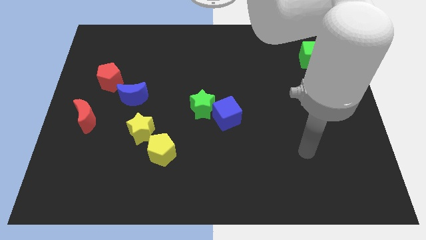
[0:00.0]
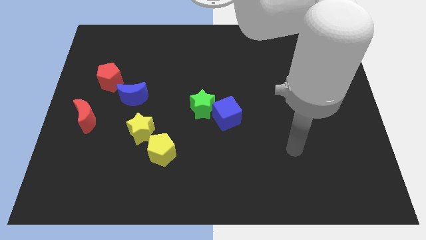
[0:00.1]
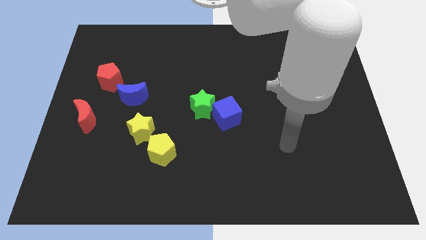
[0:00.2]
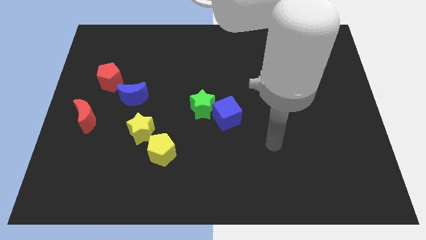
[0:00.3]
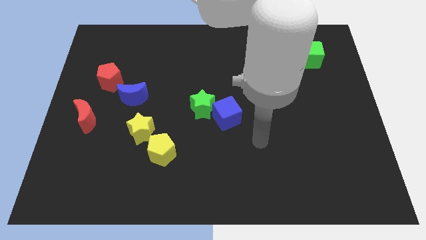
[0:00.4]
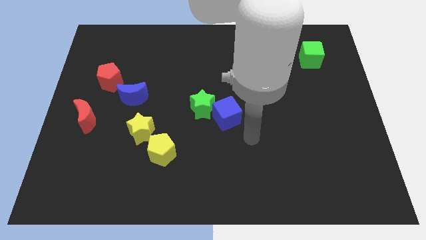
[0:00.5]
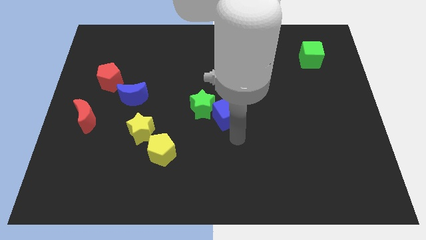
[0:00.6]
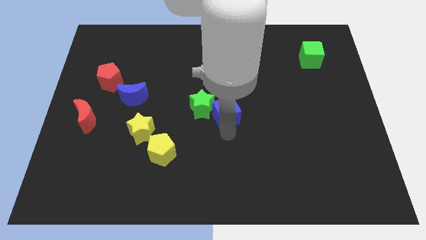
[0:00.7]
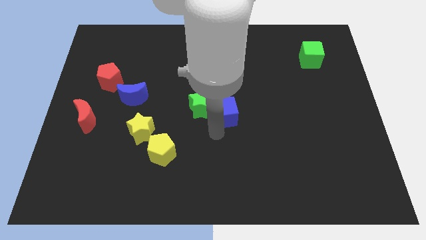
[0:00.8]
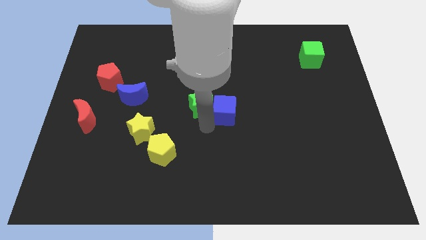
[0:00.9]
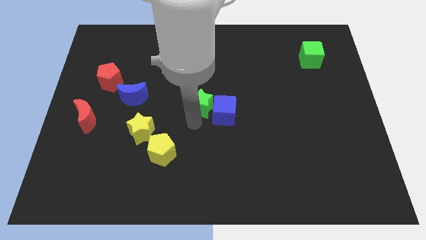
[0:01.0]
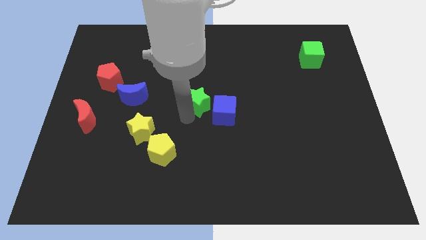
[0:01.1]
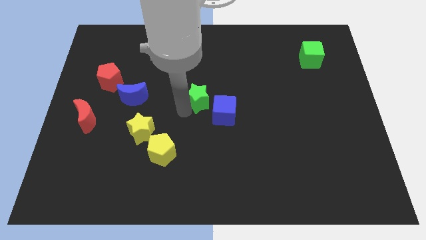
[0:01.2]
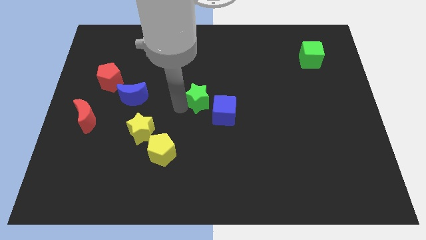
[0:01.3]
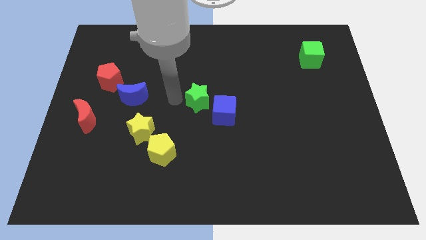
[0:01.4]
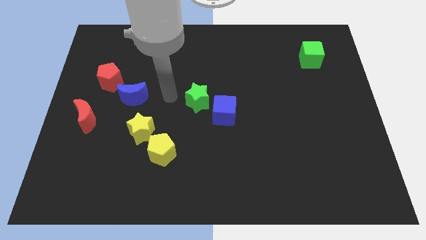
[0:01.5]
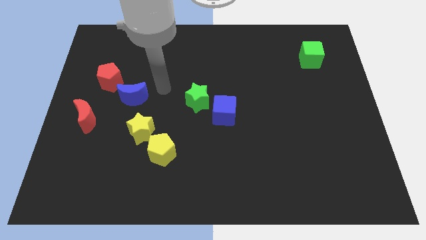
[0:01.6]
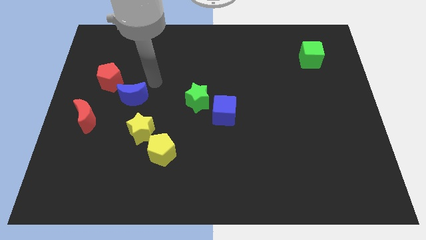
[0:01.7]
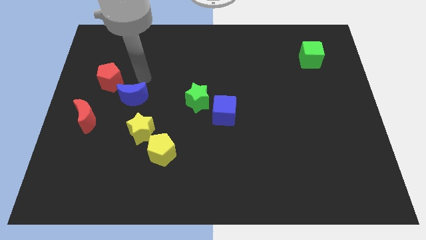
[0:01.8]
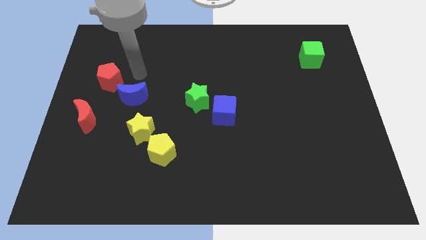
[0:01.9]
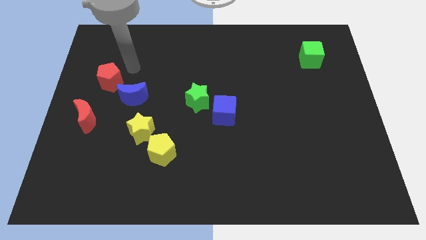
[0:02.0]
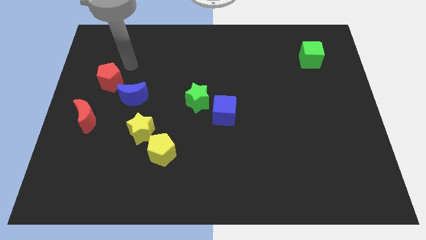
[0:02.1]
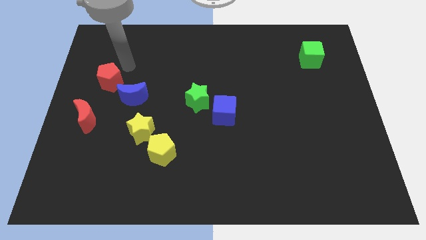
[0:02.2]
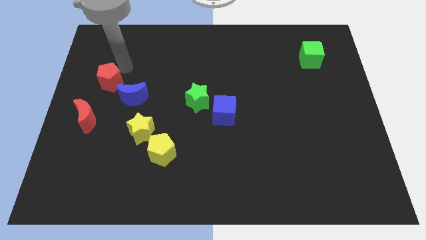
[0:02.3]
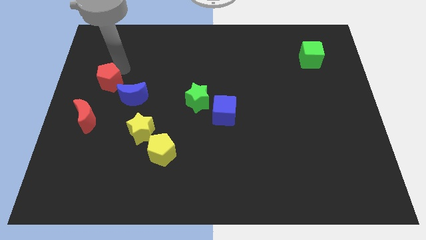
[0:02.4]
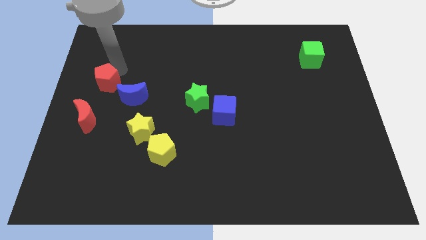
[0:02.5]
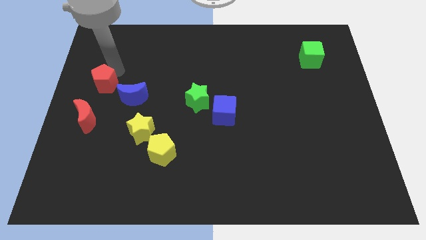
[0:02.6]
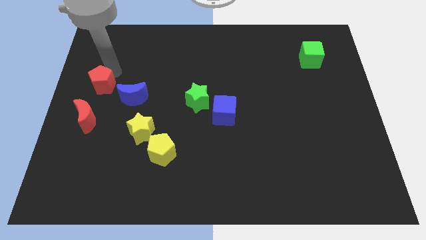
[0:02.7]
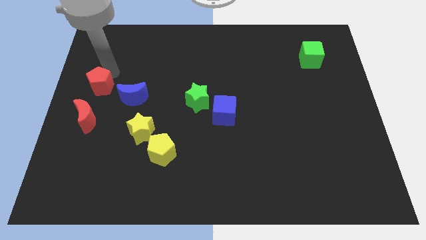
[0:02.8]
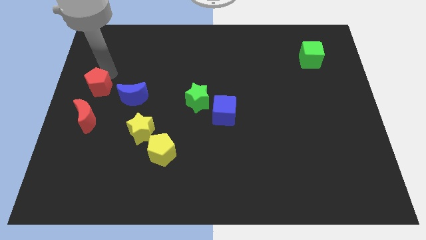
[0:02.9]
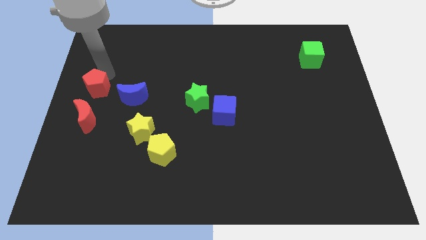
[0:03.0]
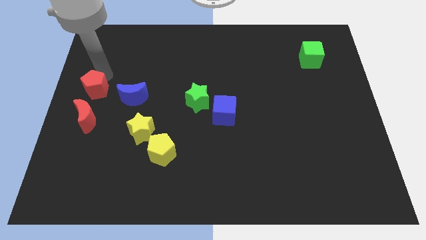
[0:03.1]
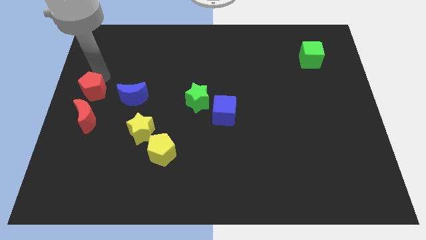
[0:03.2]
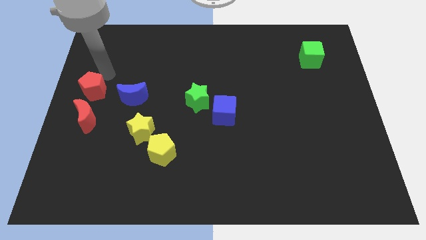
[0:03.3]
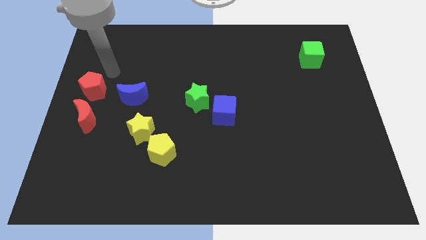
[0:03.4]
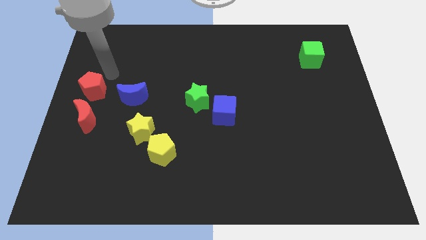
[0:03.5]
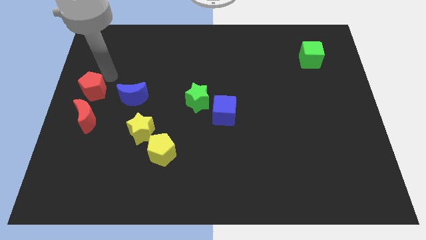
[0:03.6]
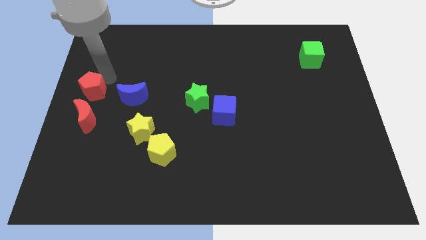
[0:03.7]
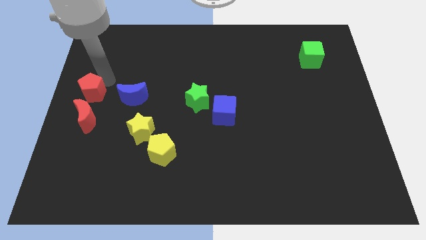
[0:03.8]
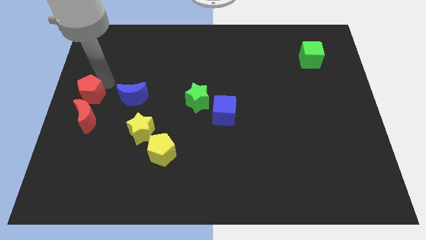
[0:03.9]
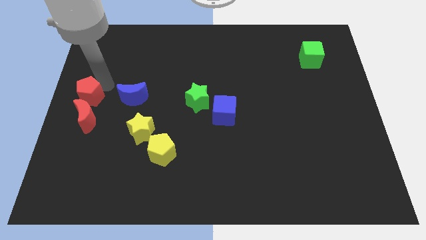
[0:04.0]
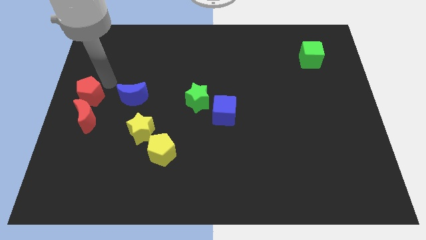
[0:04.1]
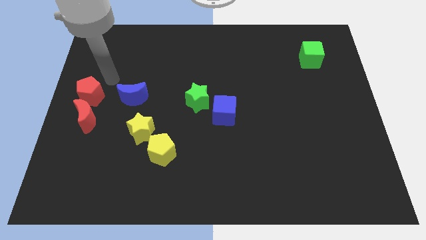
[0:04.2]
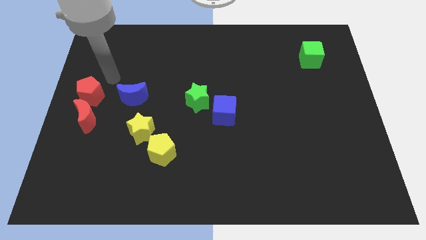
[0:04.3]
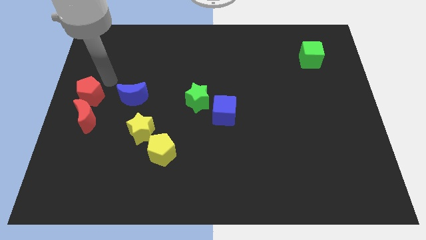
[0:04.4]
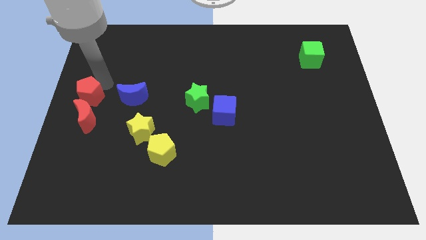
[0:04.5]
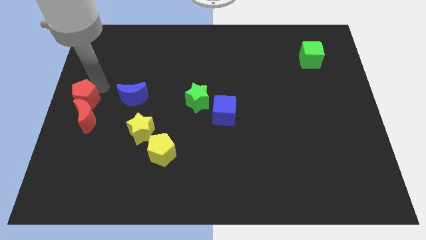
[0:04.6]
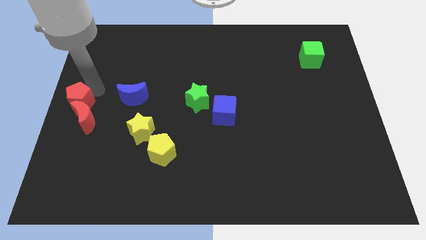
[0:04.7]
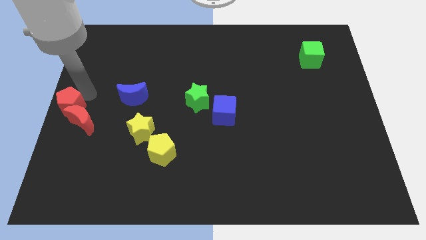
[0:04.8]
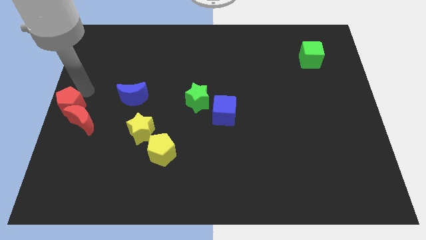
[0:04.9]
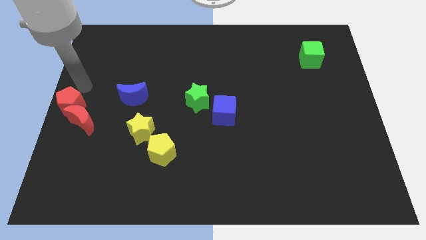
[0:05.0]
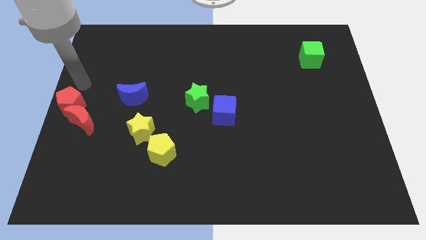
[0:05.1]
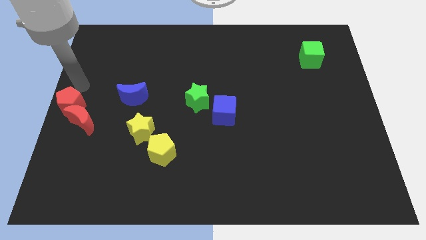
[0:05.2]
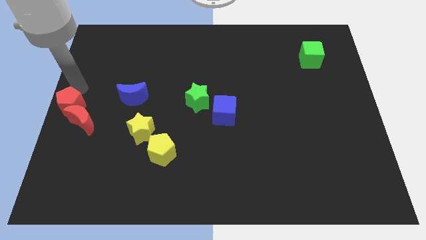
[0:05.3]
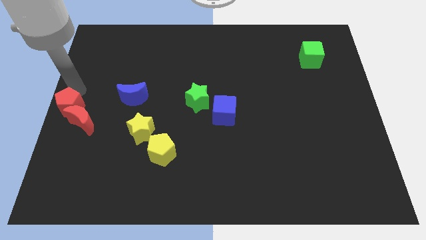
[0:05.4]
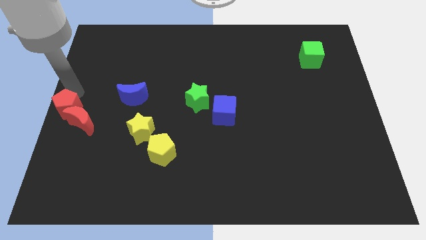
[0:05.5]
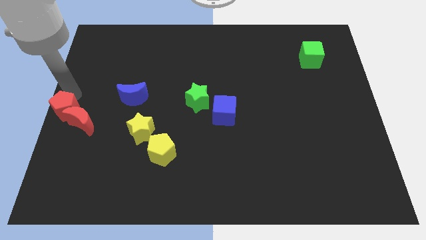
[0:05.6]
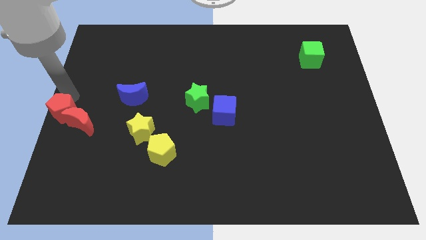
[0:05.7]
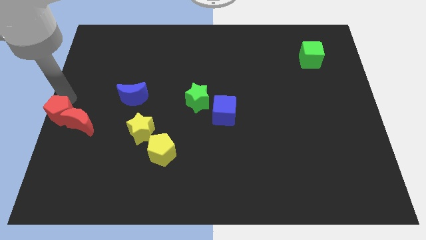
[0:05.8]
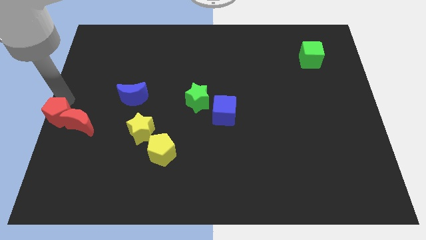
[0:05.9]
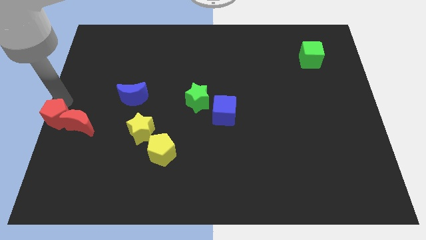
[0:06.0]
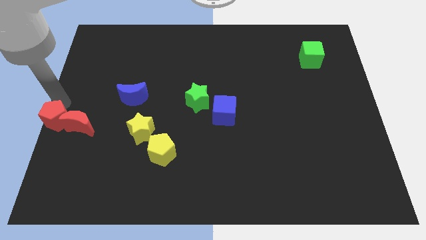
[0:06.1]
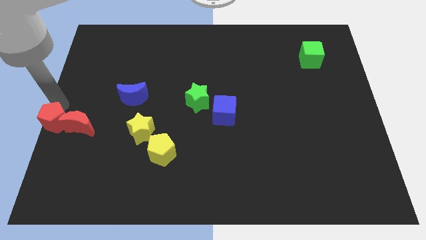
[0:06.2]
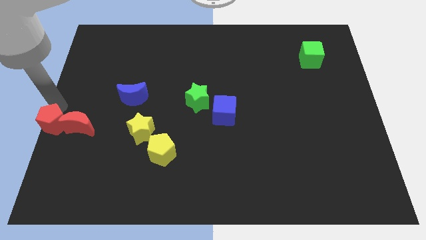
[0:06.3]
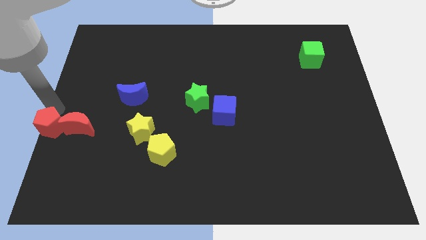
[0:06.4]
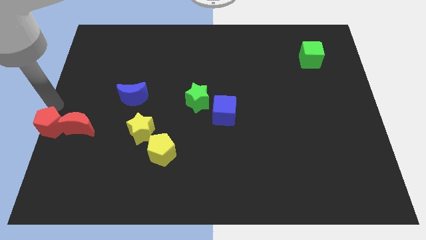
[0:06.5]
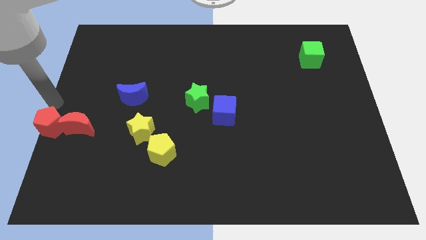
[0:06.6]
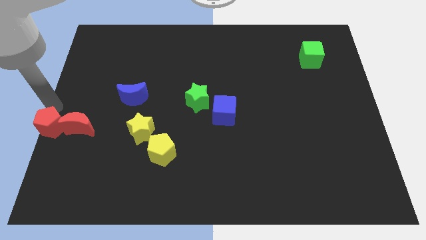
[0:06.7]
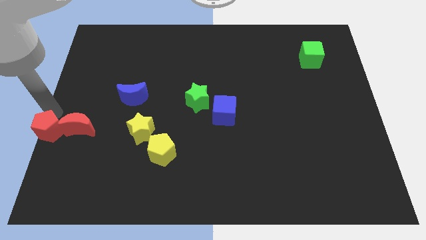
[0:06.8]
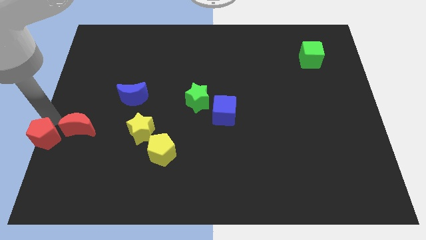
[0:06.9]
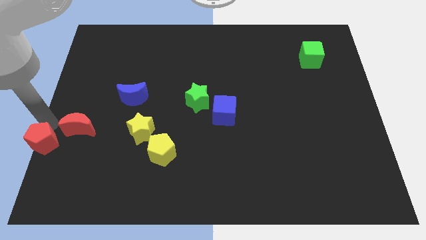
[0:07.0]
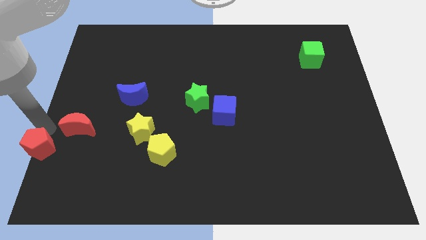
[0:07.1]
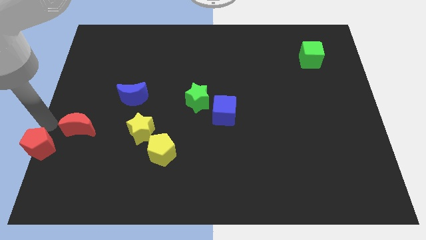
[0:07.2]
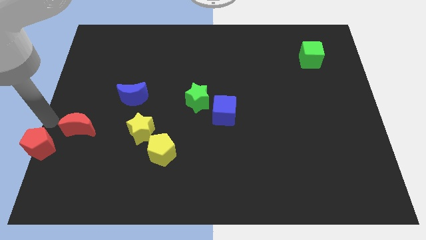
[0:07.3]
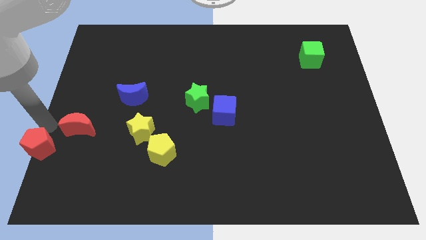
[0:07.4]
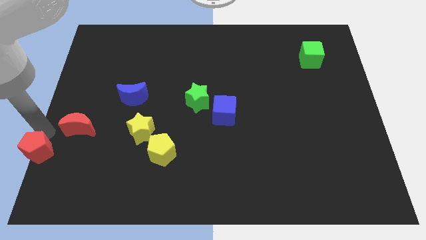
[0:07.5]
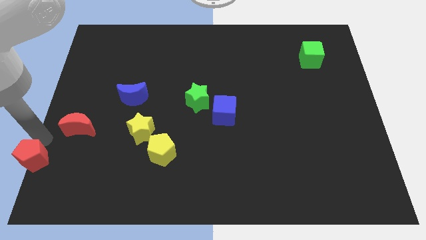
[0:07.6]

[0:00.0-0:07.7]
slide the red pentagon to the bottom left
